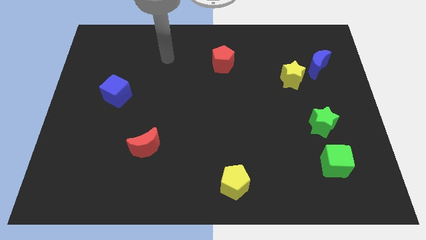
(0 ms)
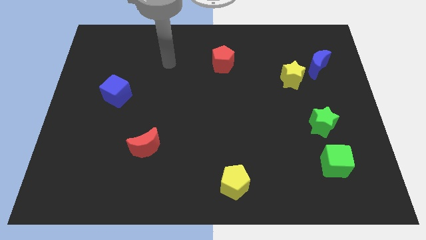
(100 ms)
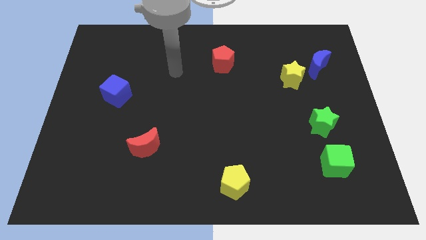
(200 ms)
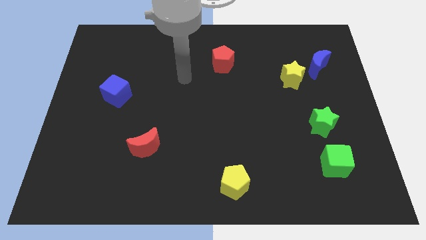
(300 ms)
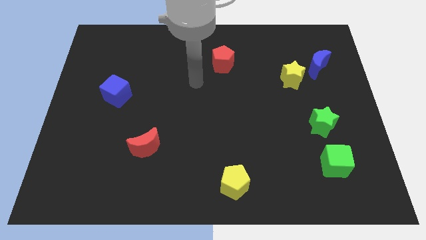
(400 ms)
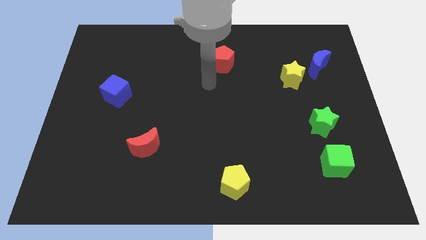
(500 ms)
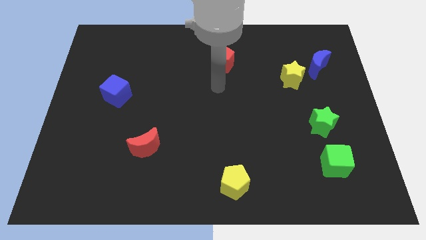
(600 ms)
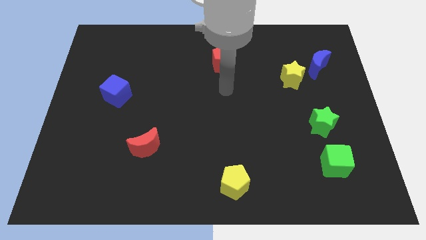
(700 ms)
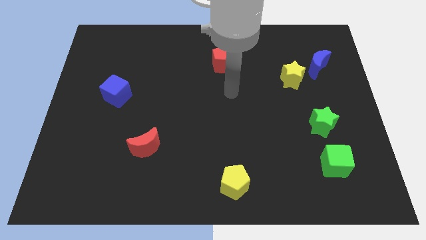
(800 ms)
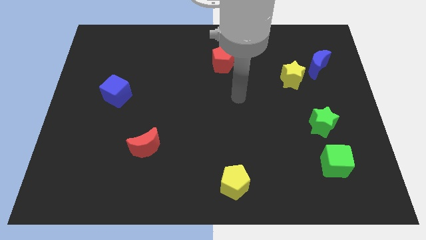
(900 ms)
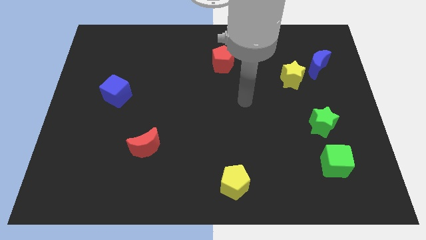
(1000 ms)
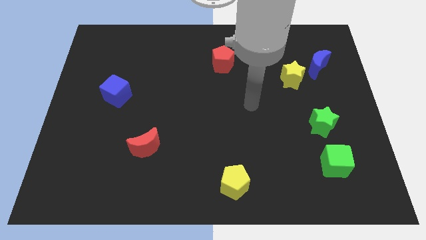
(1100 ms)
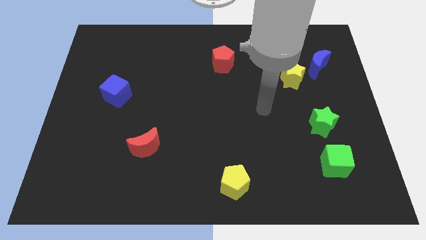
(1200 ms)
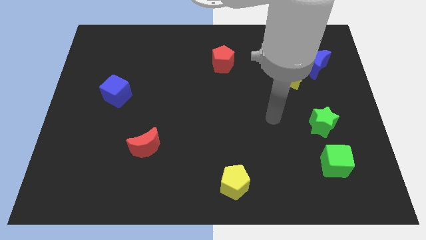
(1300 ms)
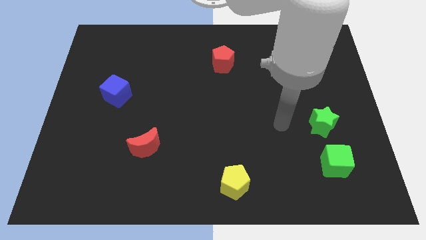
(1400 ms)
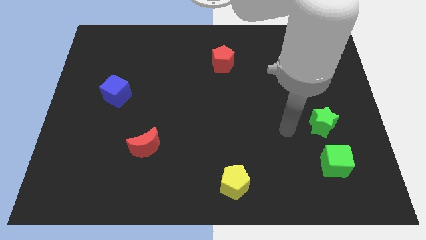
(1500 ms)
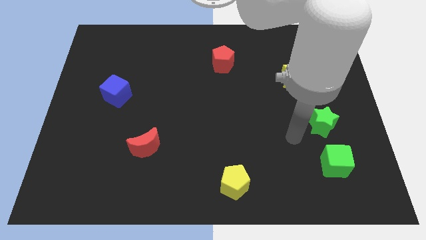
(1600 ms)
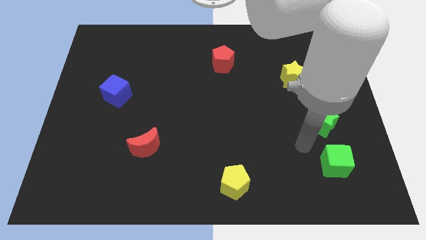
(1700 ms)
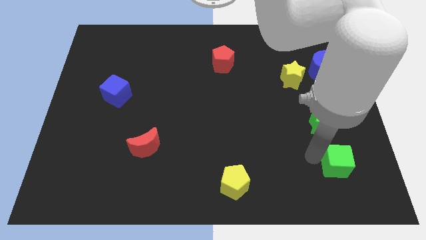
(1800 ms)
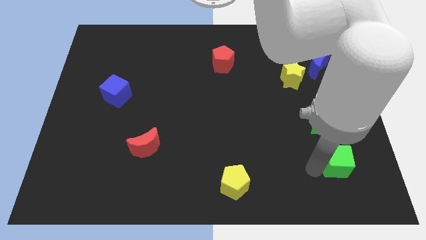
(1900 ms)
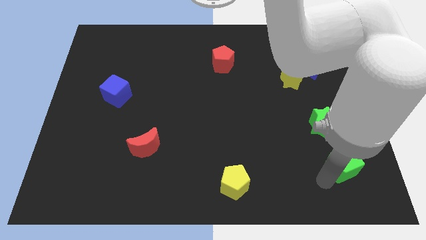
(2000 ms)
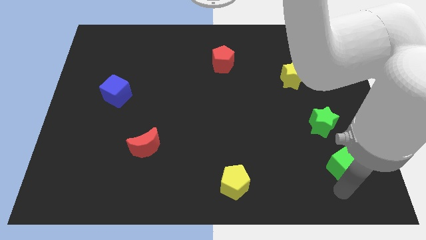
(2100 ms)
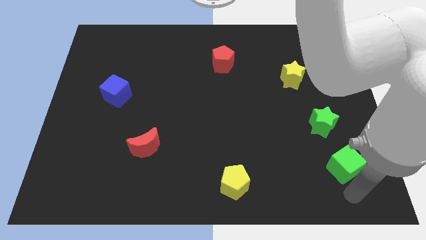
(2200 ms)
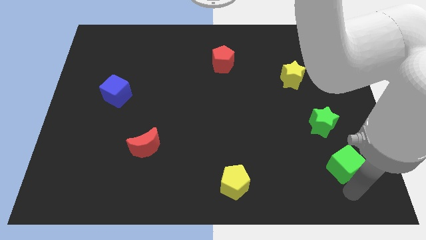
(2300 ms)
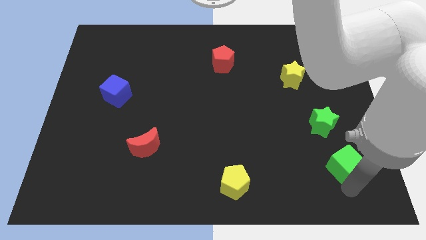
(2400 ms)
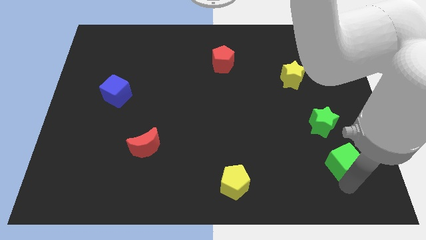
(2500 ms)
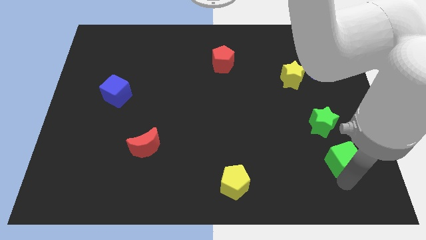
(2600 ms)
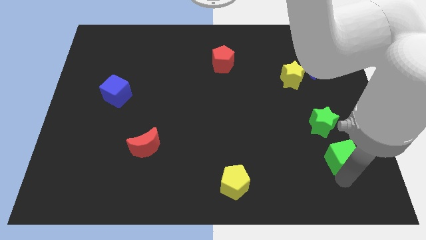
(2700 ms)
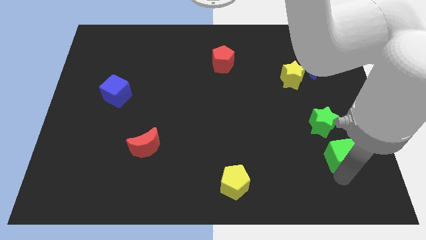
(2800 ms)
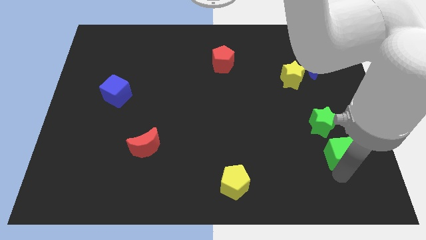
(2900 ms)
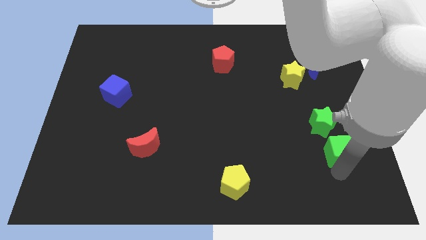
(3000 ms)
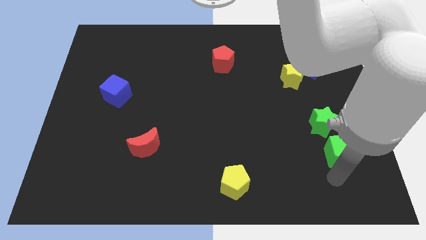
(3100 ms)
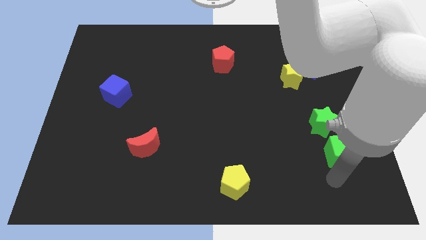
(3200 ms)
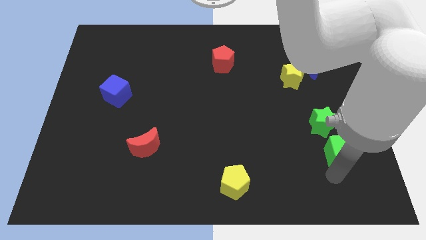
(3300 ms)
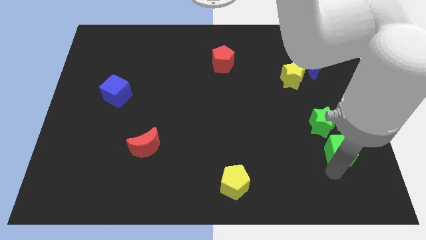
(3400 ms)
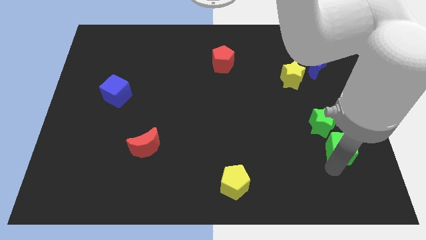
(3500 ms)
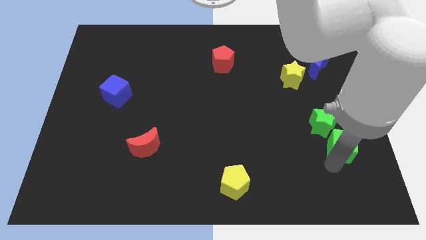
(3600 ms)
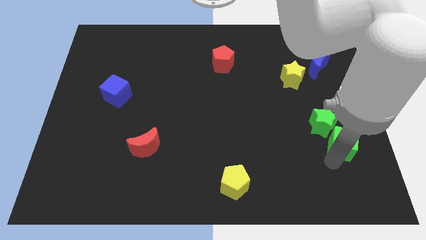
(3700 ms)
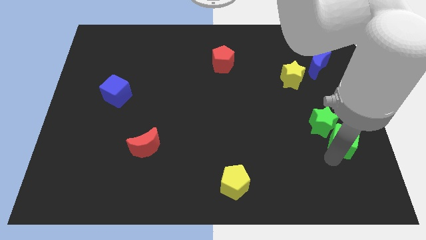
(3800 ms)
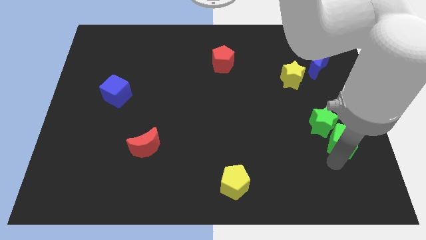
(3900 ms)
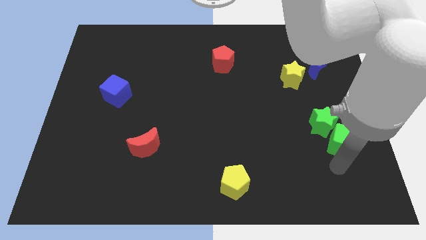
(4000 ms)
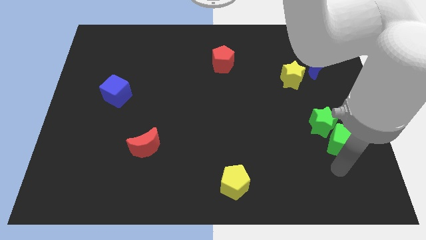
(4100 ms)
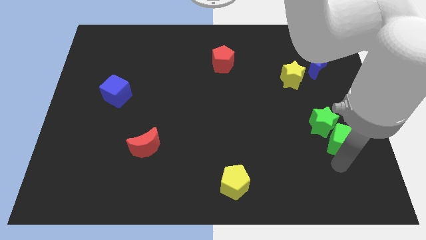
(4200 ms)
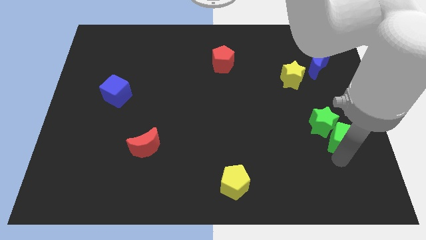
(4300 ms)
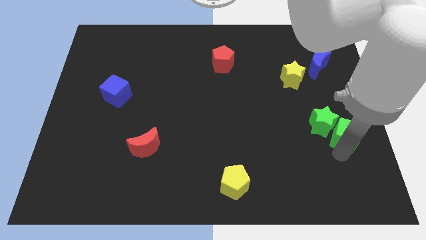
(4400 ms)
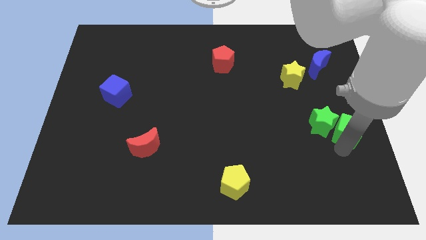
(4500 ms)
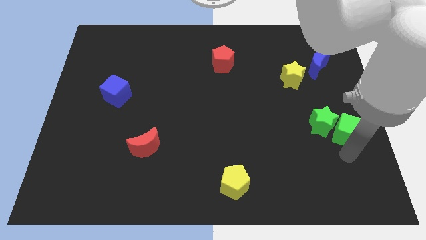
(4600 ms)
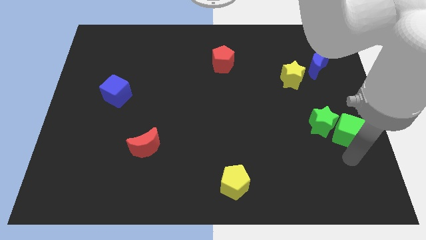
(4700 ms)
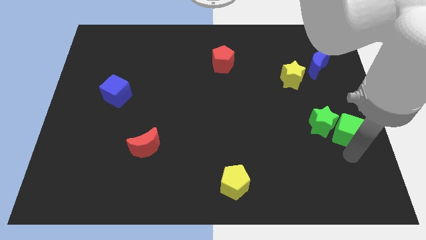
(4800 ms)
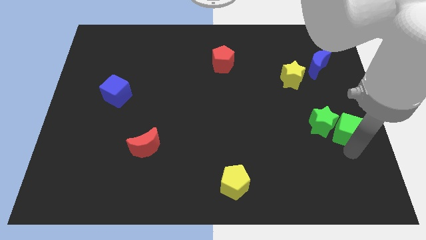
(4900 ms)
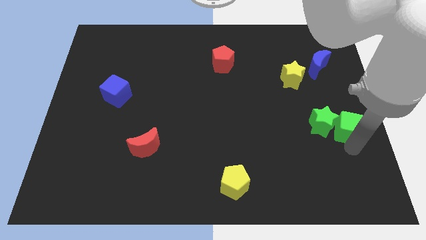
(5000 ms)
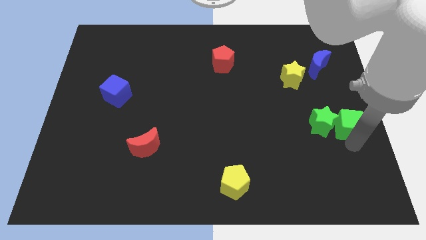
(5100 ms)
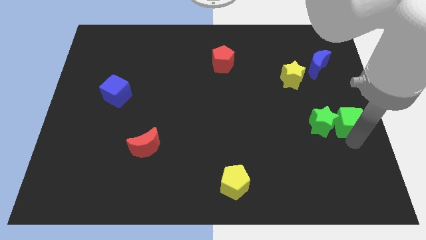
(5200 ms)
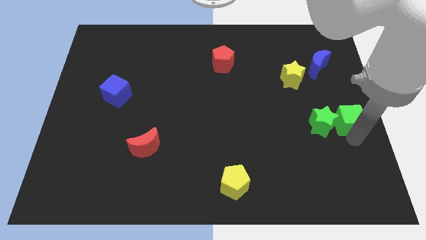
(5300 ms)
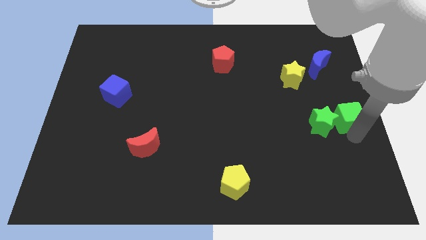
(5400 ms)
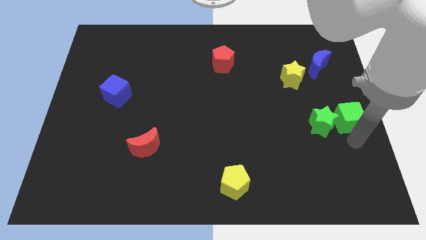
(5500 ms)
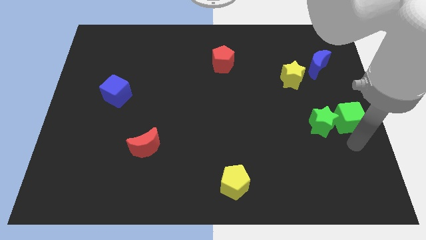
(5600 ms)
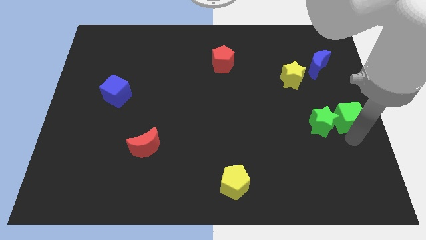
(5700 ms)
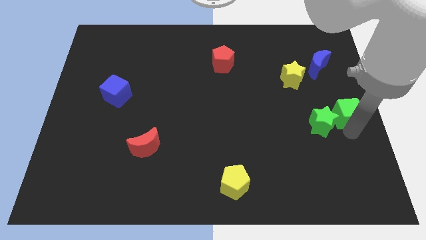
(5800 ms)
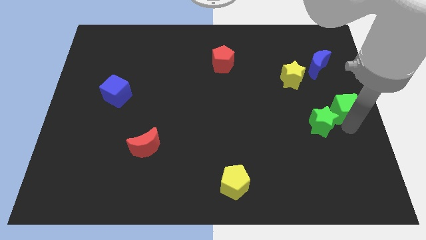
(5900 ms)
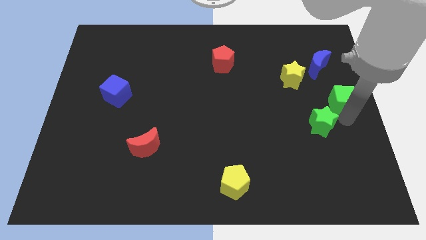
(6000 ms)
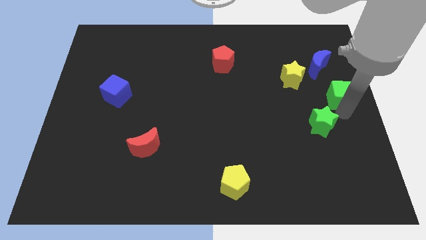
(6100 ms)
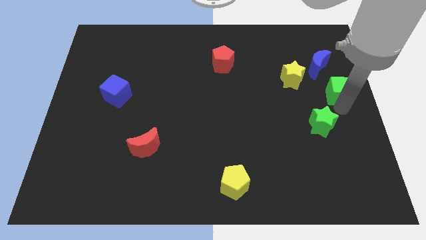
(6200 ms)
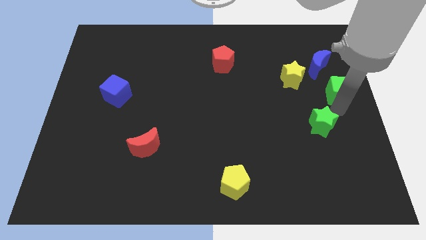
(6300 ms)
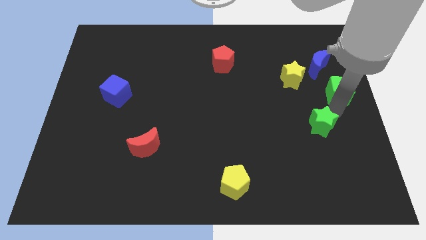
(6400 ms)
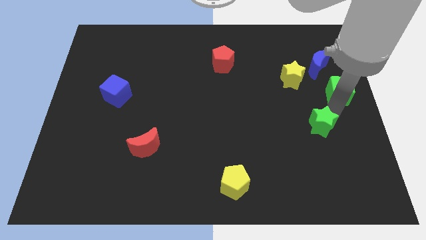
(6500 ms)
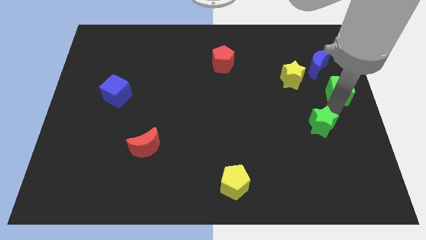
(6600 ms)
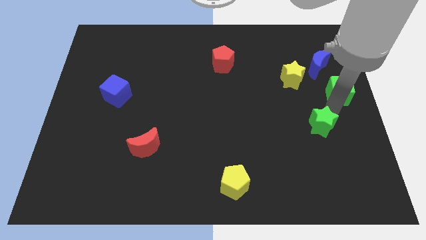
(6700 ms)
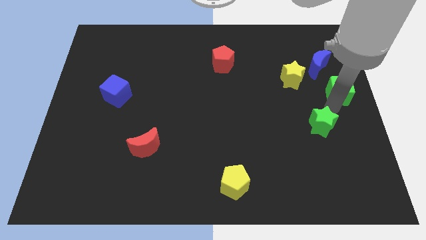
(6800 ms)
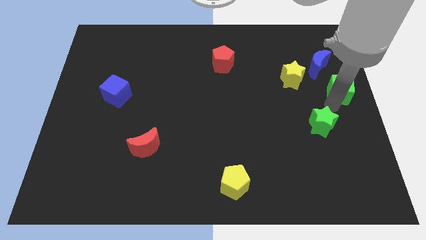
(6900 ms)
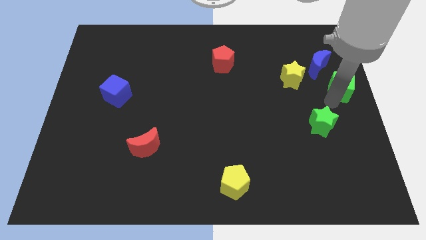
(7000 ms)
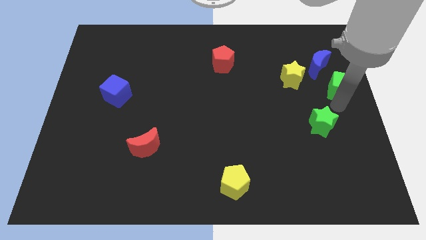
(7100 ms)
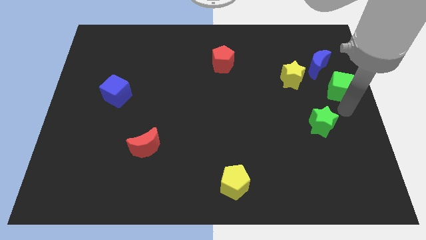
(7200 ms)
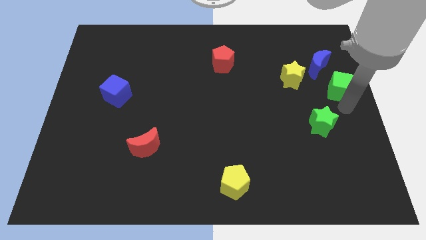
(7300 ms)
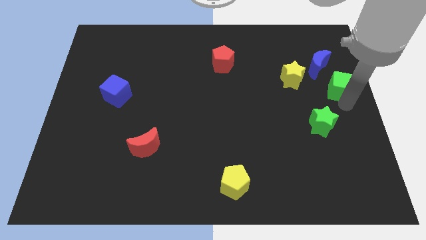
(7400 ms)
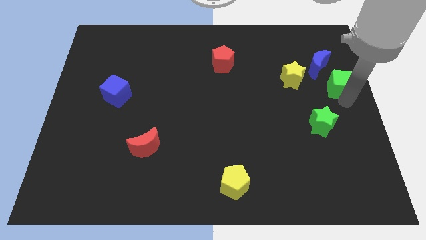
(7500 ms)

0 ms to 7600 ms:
push the green cube upwards

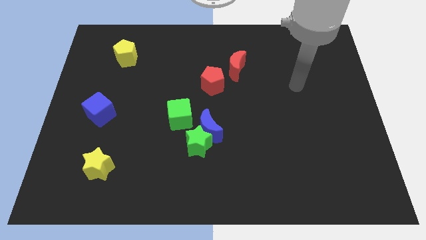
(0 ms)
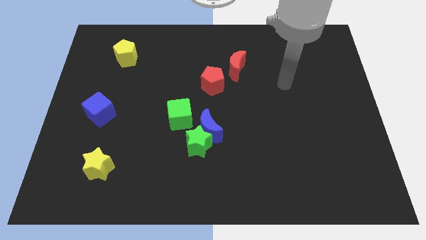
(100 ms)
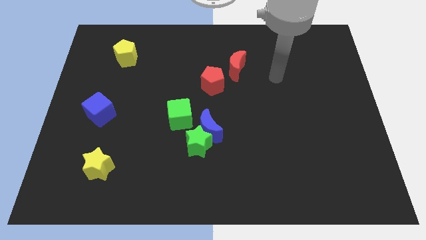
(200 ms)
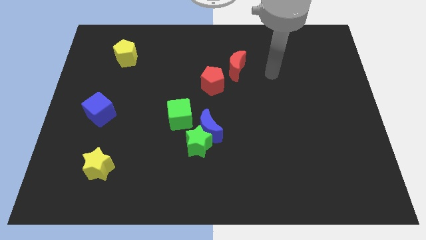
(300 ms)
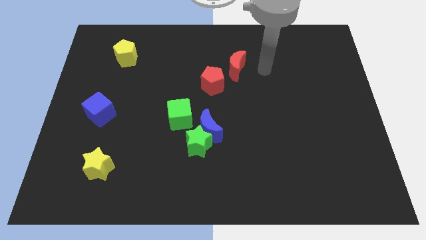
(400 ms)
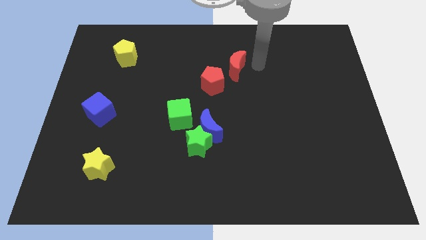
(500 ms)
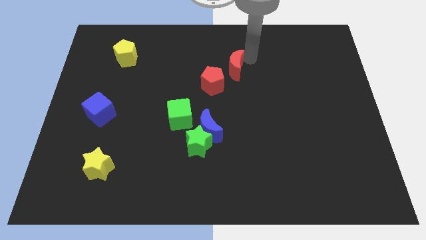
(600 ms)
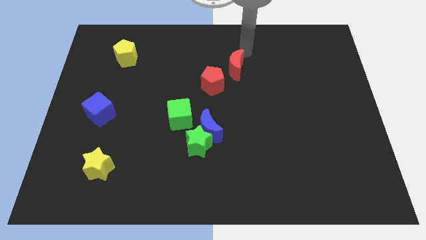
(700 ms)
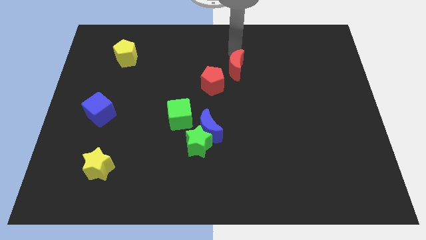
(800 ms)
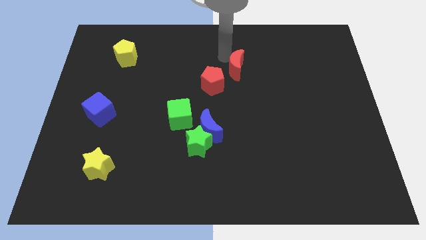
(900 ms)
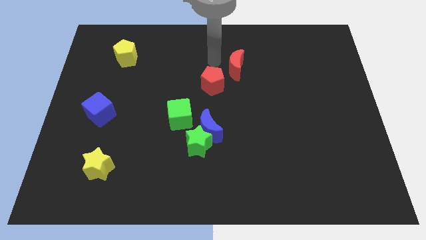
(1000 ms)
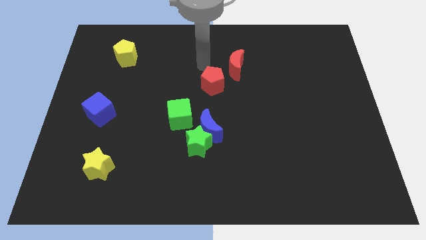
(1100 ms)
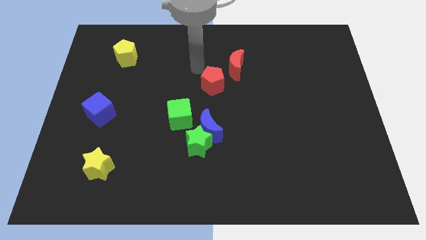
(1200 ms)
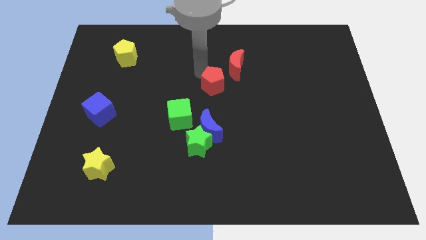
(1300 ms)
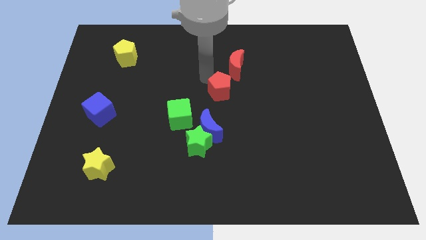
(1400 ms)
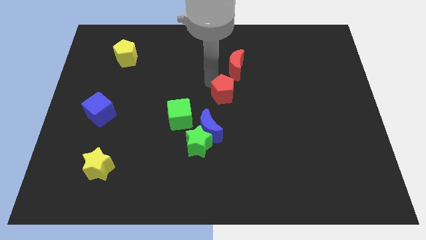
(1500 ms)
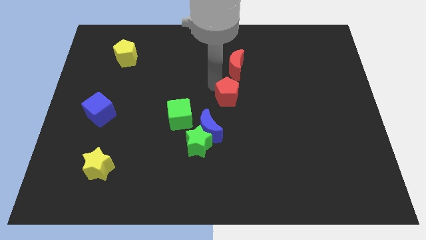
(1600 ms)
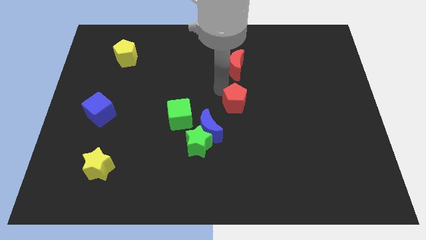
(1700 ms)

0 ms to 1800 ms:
slightly push the red pentagon downwards and to the right diagonally
